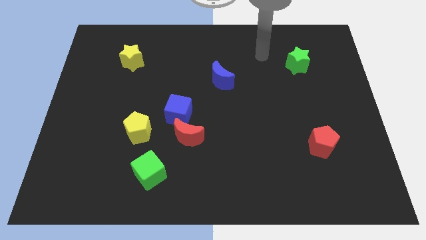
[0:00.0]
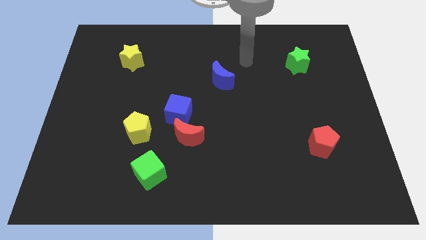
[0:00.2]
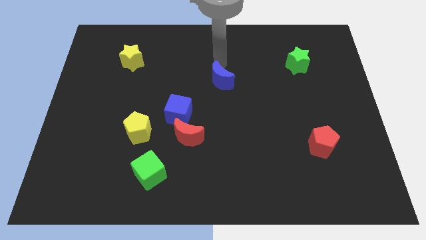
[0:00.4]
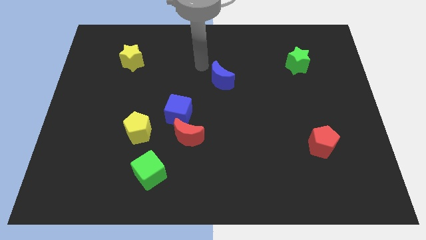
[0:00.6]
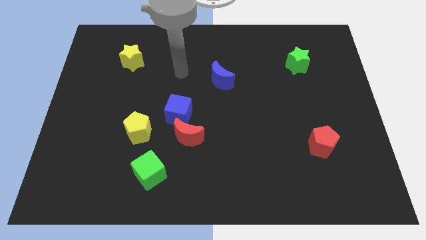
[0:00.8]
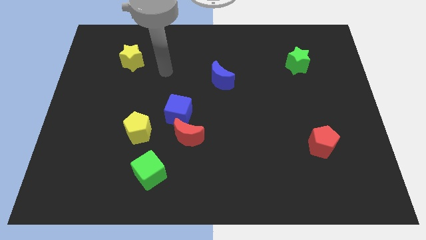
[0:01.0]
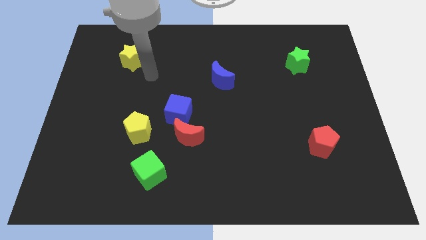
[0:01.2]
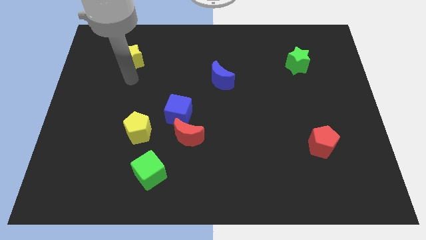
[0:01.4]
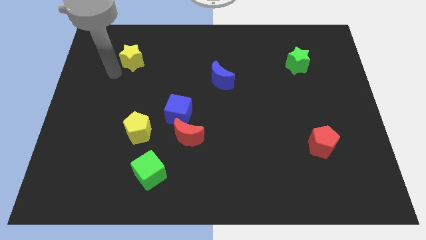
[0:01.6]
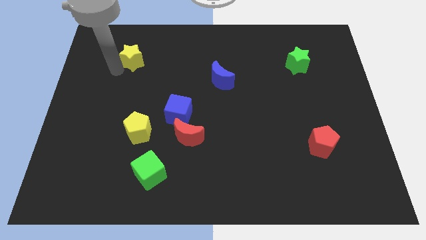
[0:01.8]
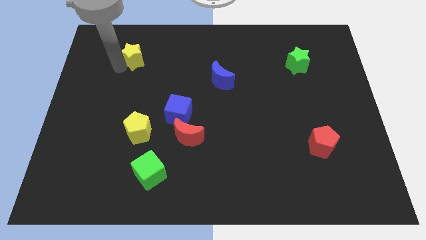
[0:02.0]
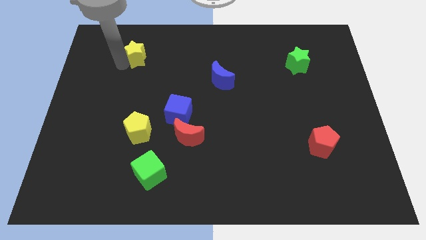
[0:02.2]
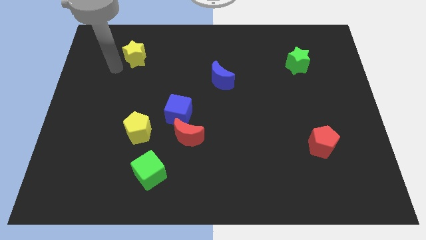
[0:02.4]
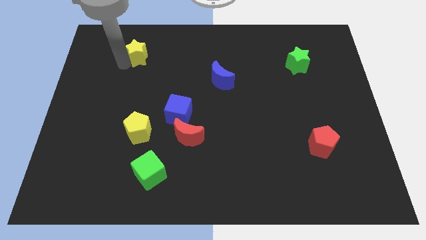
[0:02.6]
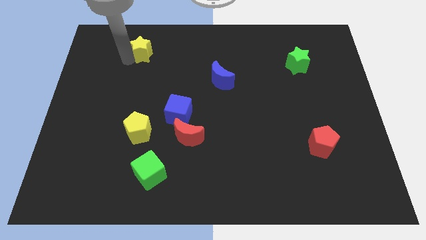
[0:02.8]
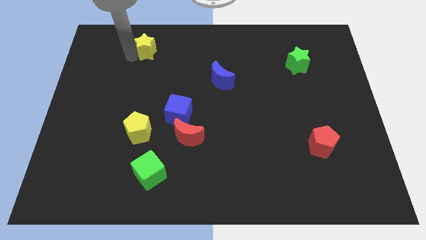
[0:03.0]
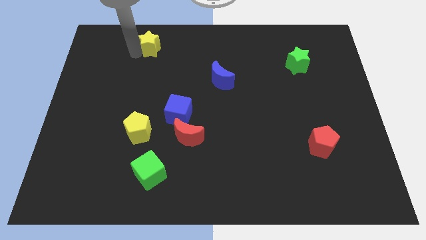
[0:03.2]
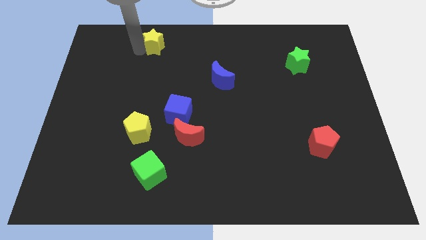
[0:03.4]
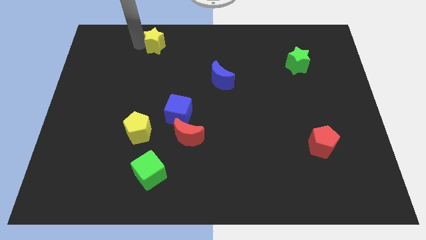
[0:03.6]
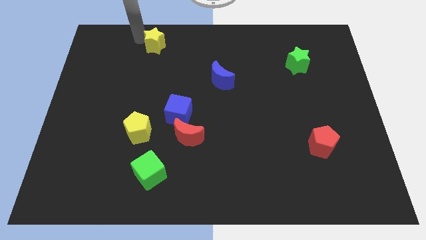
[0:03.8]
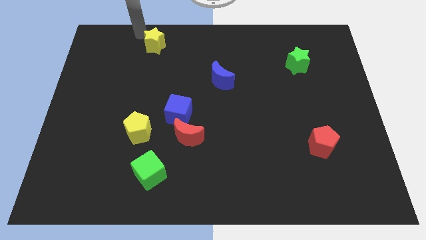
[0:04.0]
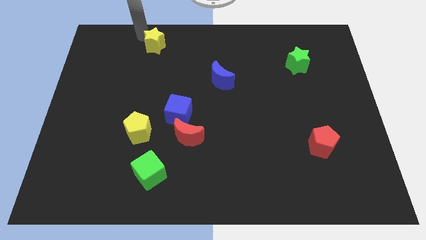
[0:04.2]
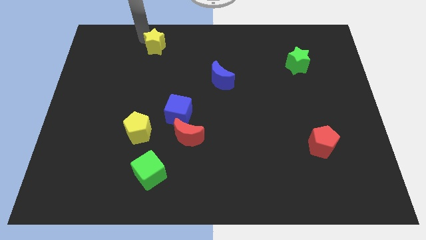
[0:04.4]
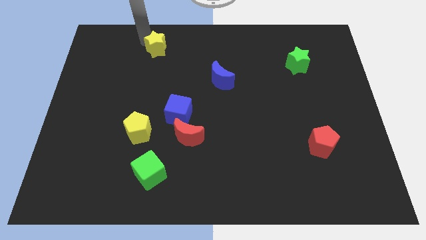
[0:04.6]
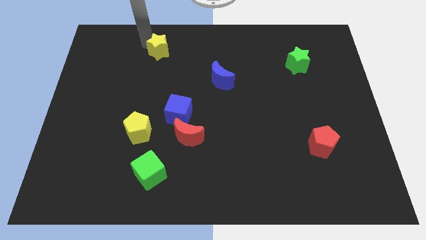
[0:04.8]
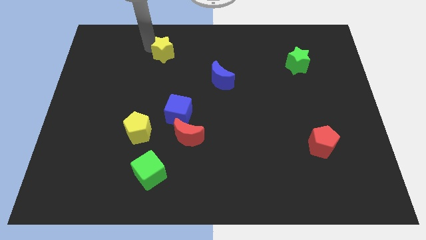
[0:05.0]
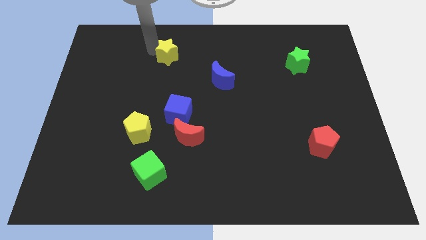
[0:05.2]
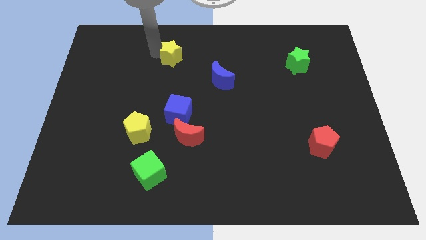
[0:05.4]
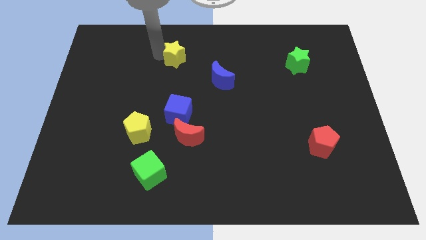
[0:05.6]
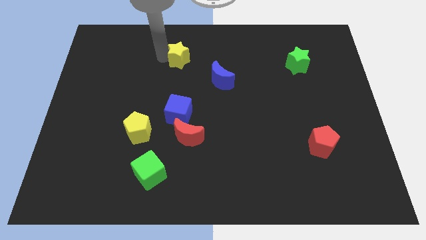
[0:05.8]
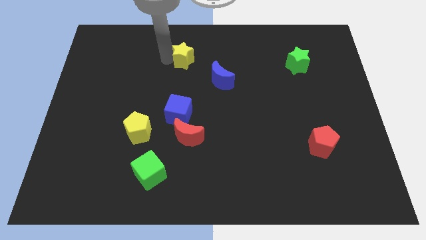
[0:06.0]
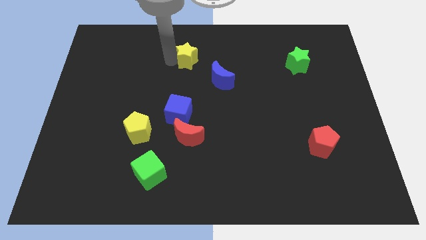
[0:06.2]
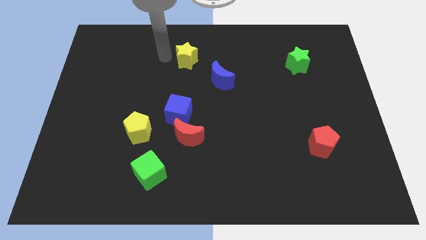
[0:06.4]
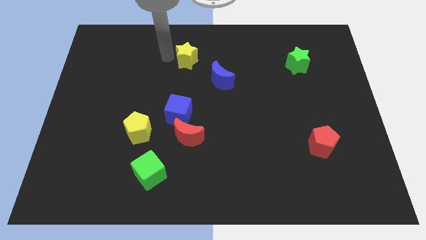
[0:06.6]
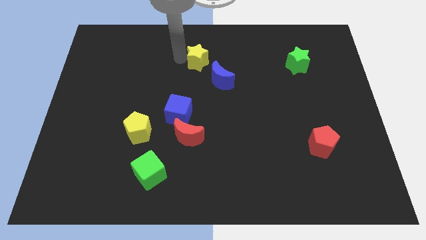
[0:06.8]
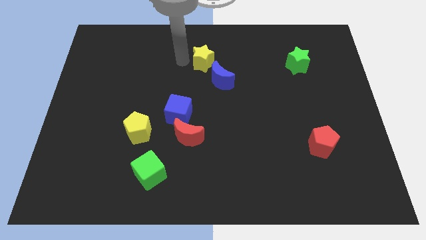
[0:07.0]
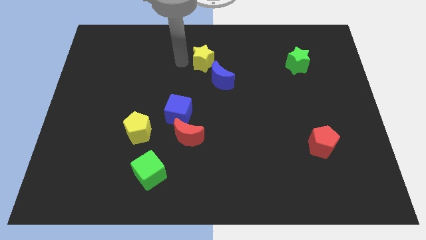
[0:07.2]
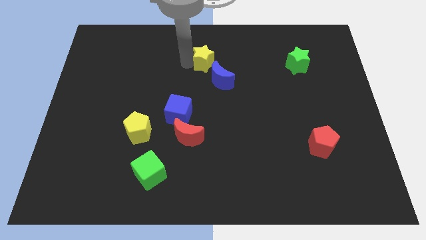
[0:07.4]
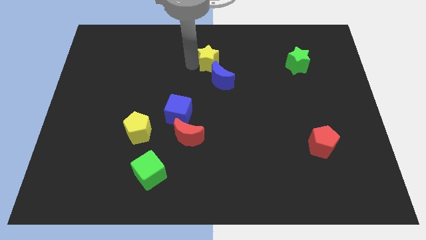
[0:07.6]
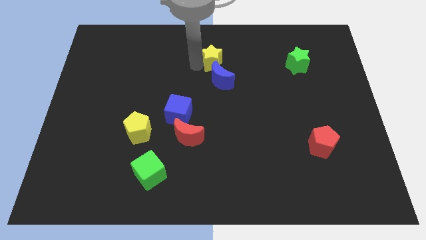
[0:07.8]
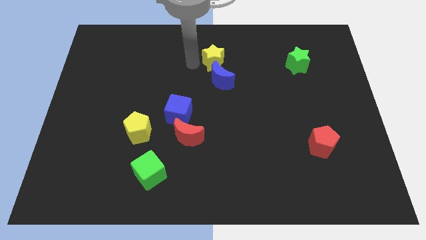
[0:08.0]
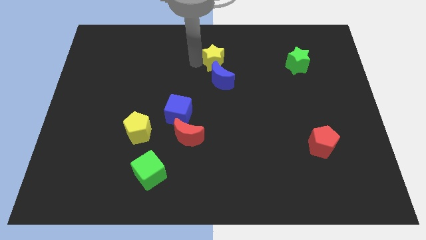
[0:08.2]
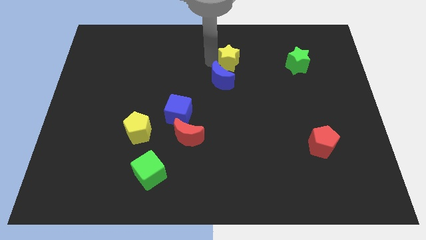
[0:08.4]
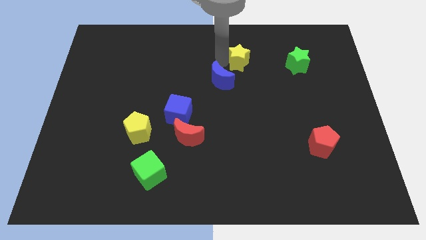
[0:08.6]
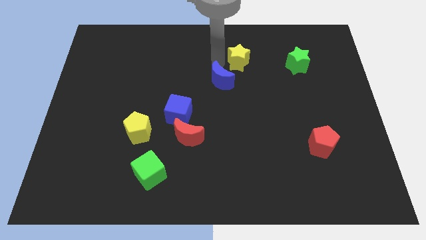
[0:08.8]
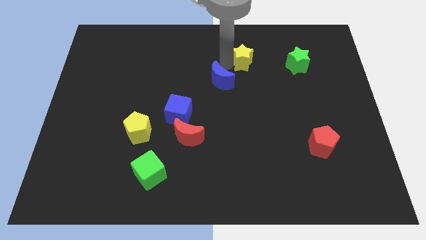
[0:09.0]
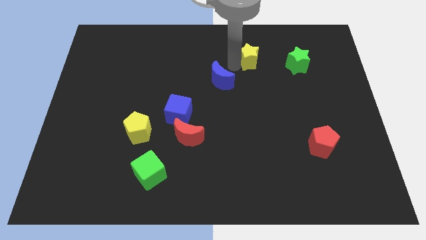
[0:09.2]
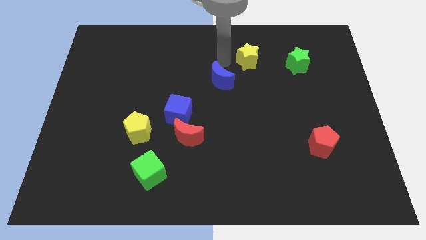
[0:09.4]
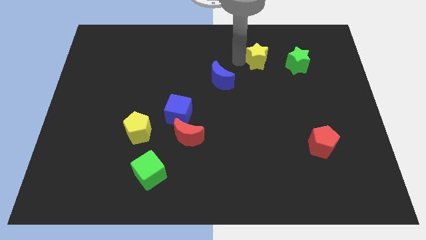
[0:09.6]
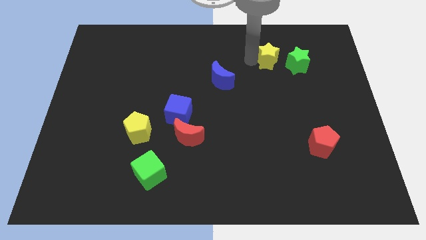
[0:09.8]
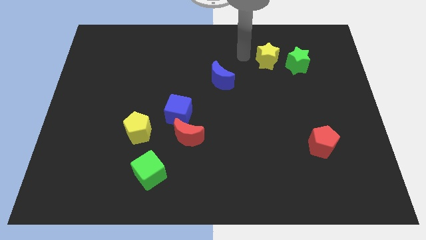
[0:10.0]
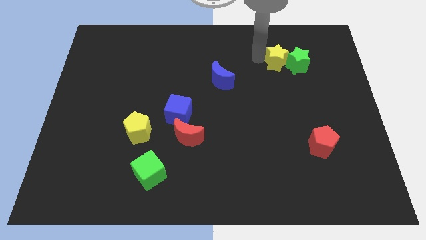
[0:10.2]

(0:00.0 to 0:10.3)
move the yellow star next to the green star

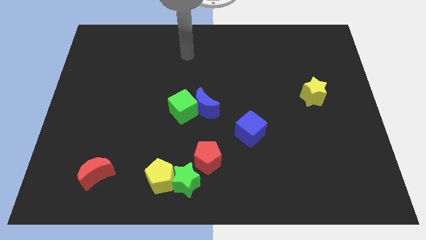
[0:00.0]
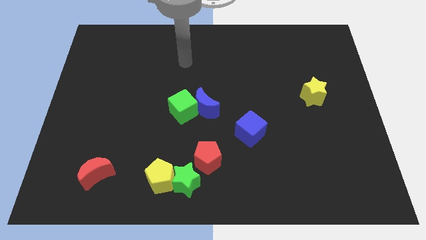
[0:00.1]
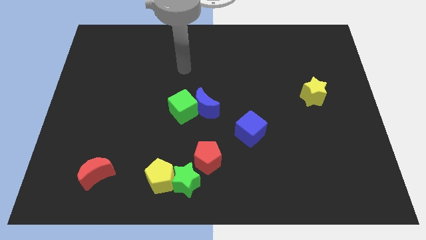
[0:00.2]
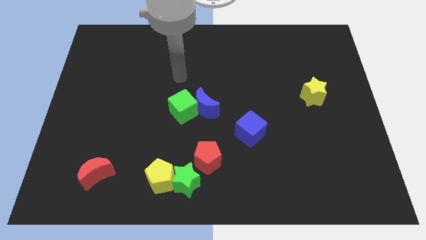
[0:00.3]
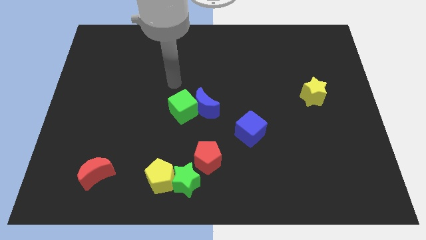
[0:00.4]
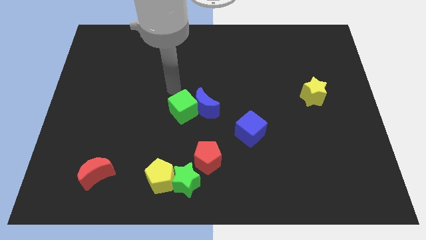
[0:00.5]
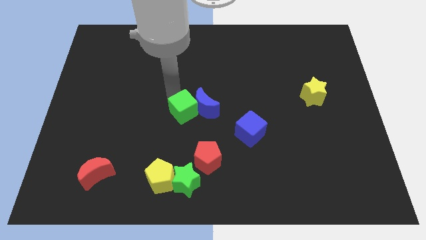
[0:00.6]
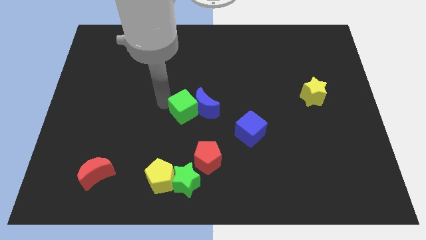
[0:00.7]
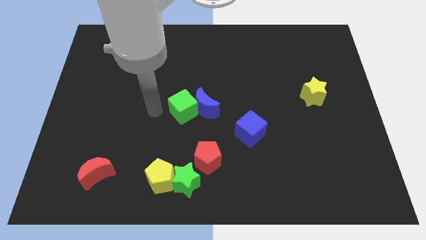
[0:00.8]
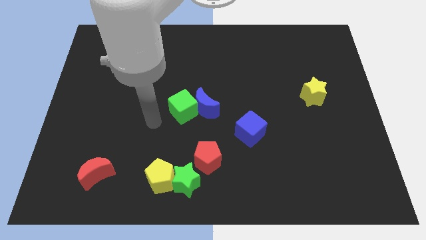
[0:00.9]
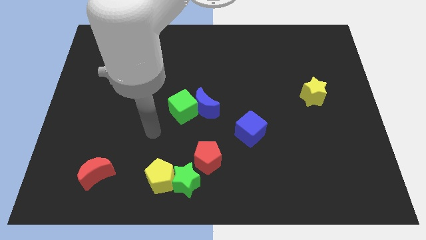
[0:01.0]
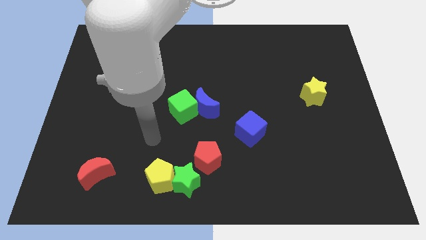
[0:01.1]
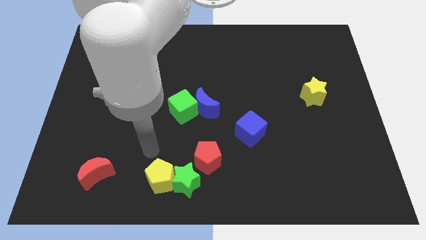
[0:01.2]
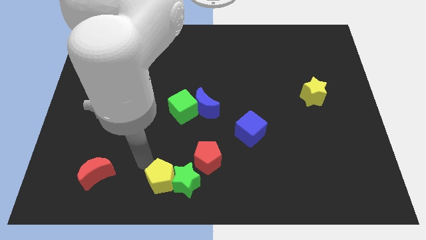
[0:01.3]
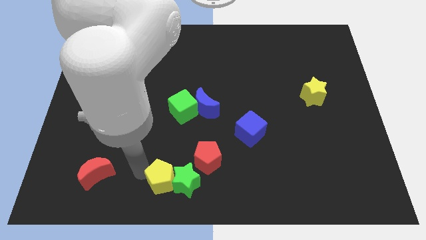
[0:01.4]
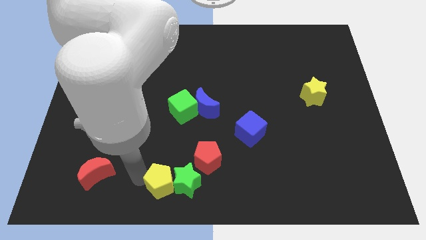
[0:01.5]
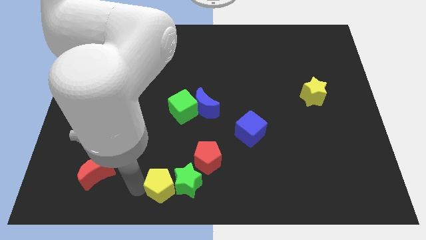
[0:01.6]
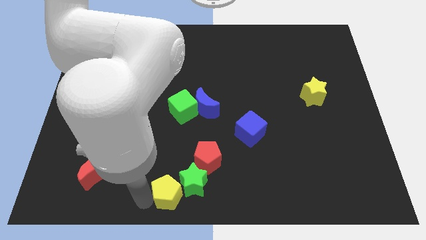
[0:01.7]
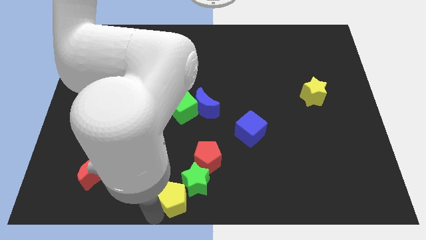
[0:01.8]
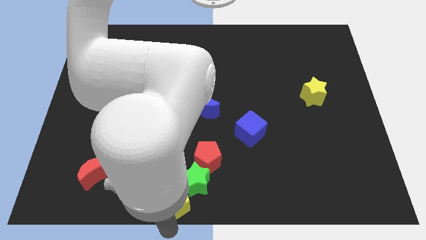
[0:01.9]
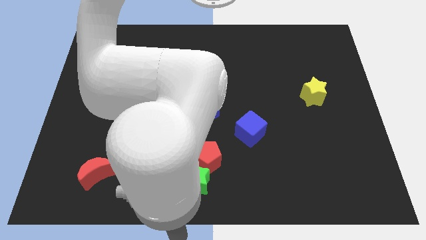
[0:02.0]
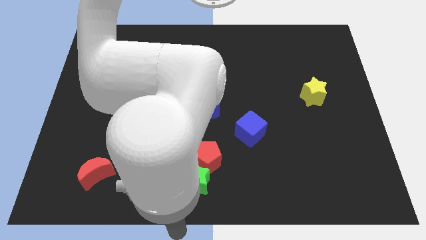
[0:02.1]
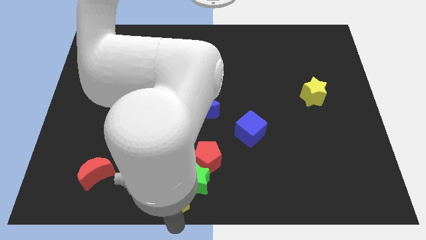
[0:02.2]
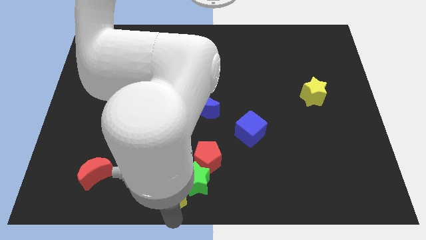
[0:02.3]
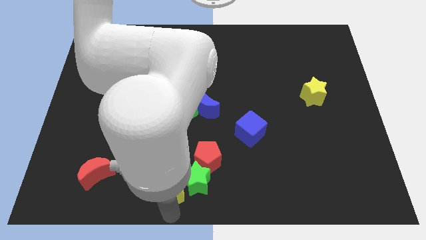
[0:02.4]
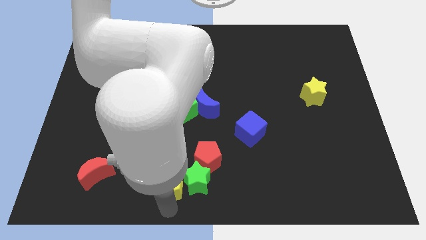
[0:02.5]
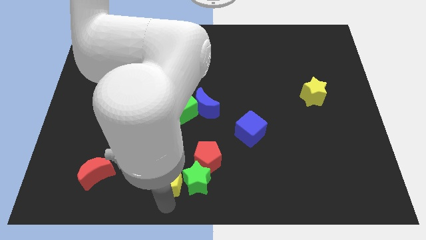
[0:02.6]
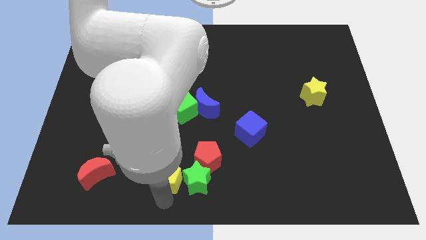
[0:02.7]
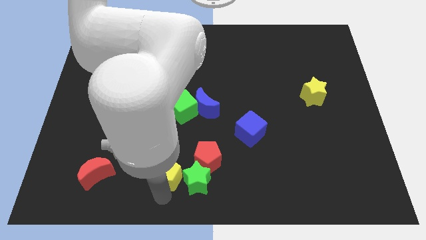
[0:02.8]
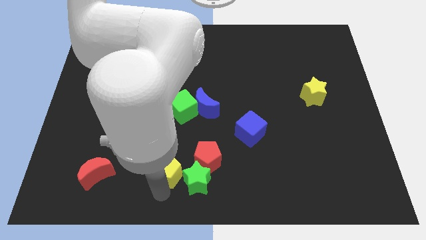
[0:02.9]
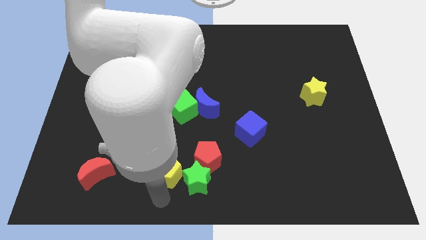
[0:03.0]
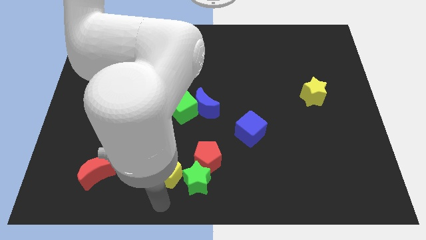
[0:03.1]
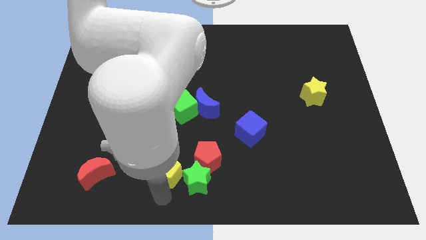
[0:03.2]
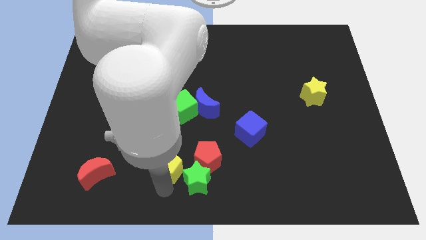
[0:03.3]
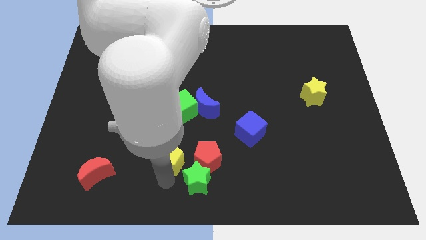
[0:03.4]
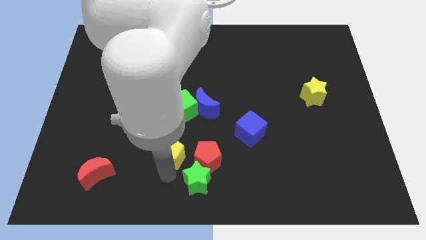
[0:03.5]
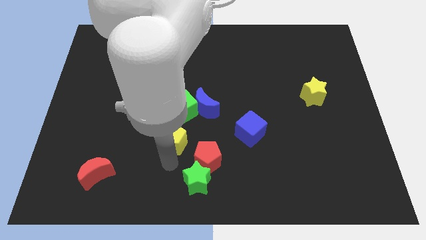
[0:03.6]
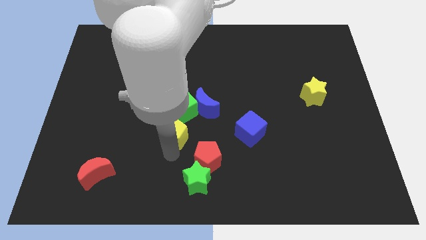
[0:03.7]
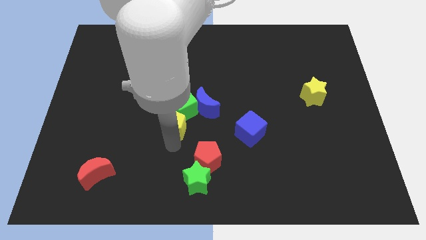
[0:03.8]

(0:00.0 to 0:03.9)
slide the yellow pentagon close to the green cube
